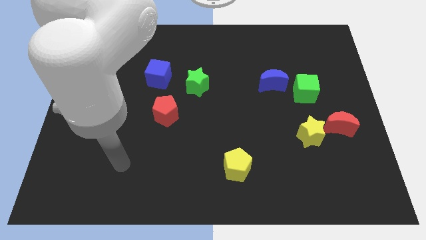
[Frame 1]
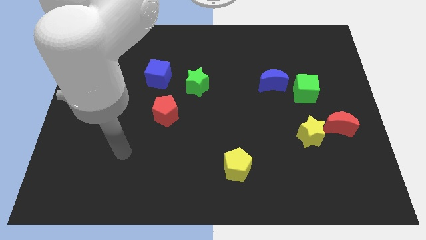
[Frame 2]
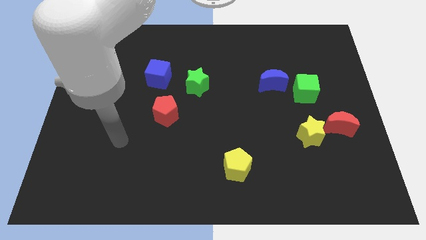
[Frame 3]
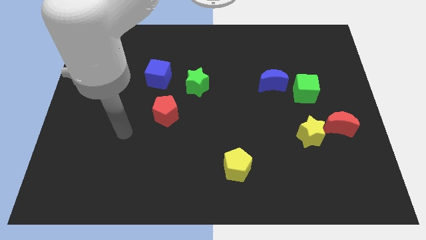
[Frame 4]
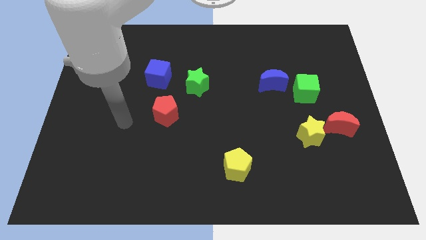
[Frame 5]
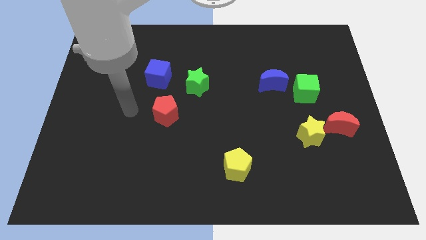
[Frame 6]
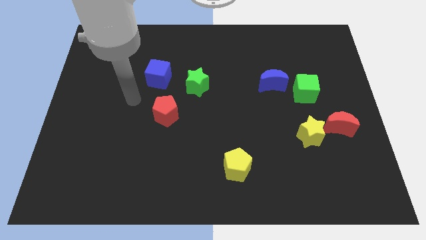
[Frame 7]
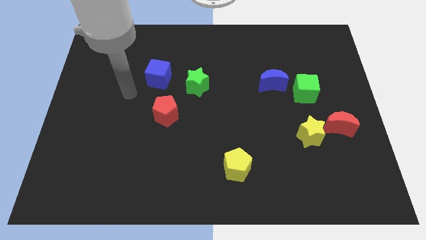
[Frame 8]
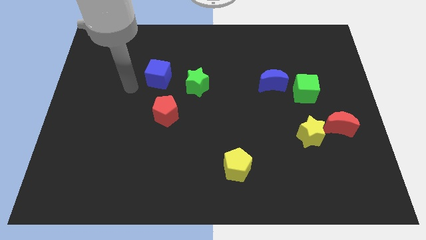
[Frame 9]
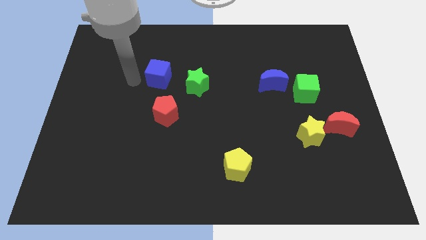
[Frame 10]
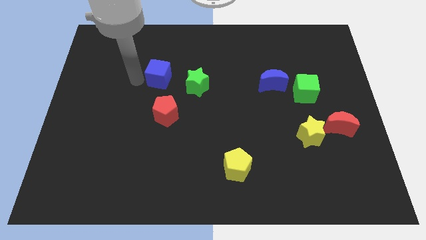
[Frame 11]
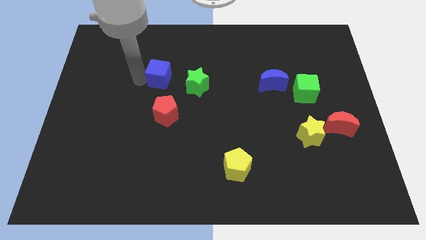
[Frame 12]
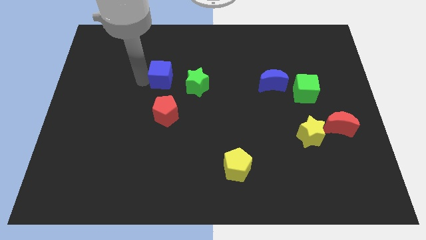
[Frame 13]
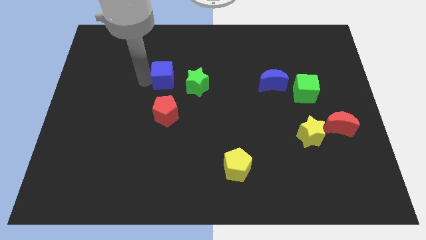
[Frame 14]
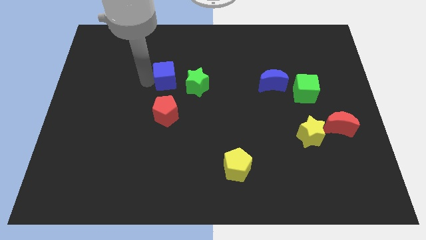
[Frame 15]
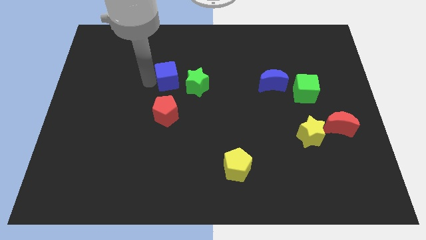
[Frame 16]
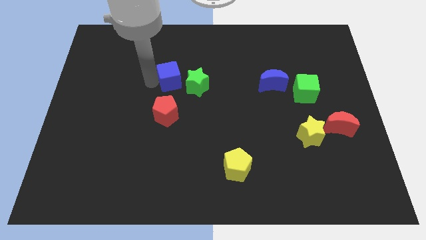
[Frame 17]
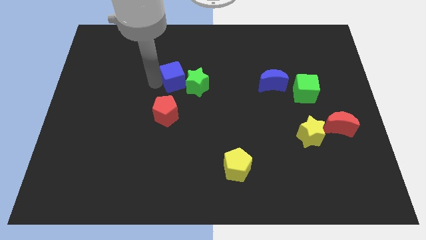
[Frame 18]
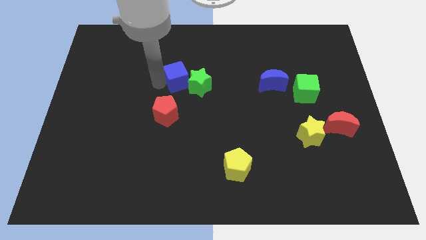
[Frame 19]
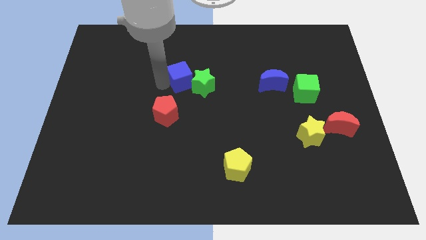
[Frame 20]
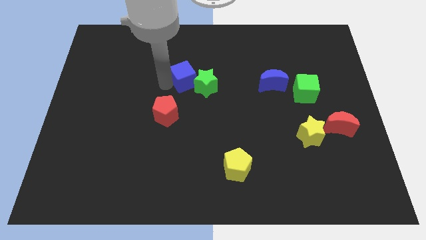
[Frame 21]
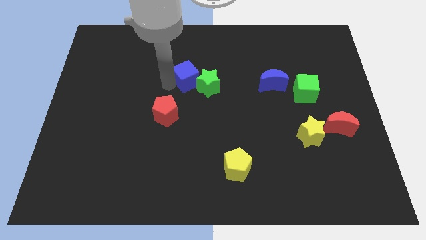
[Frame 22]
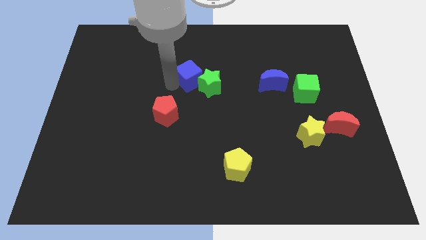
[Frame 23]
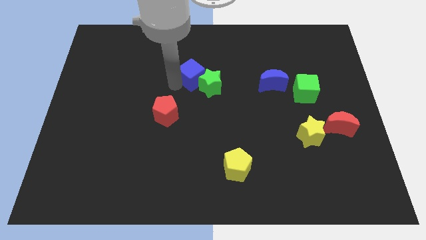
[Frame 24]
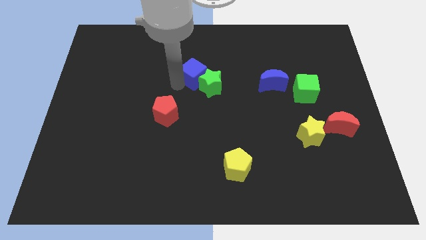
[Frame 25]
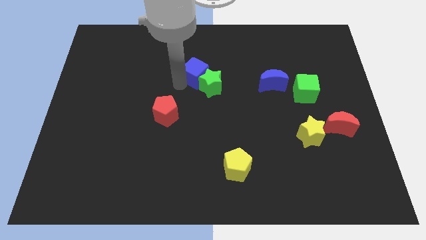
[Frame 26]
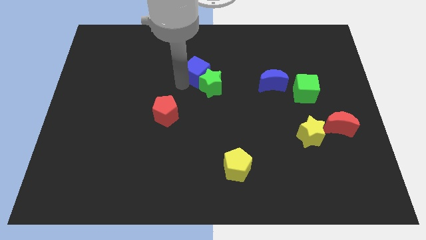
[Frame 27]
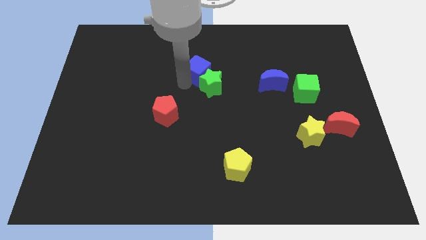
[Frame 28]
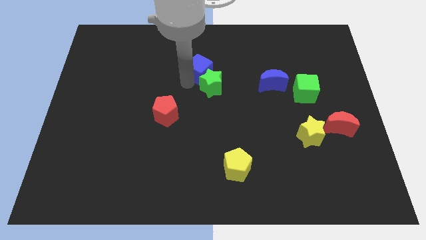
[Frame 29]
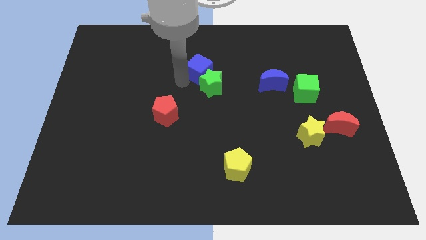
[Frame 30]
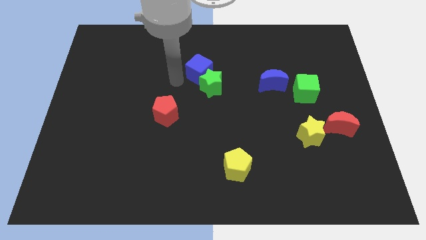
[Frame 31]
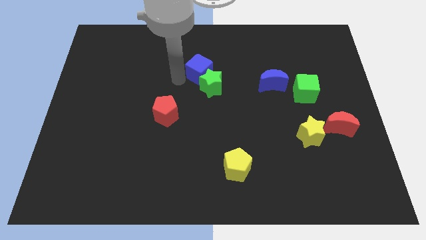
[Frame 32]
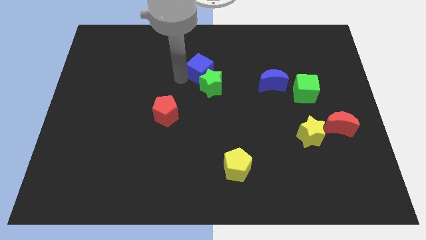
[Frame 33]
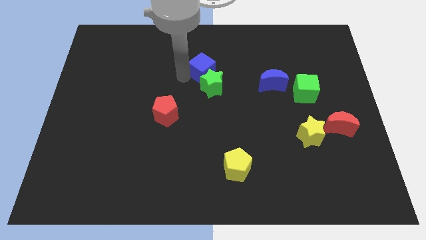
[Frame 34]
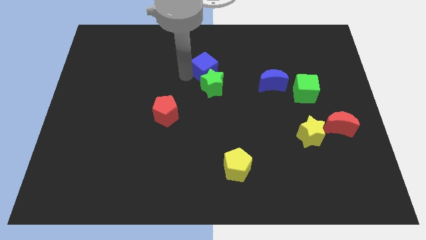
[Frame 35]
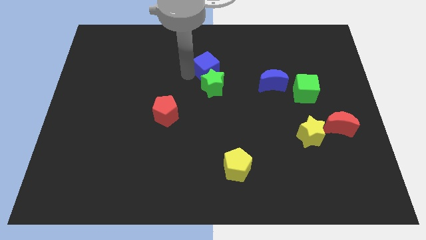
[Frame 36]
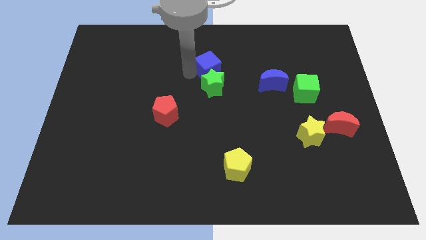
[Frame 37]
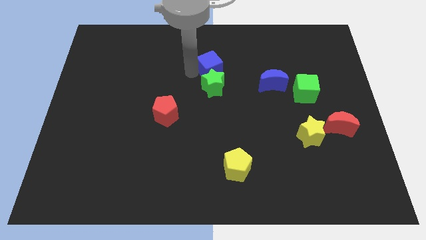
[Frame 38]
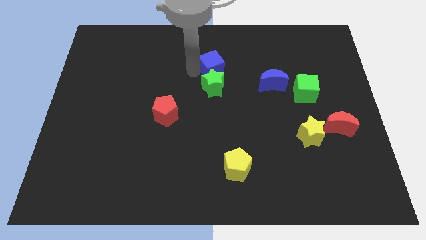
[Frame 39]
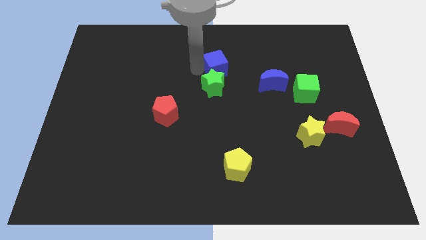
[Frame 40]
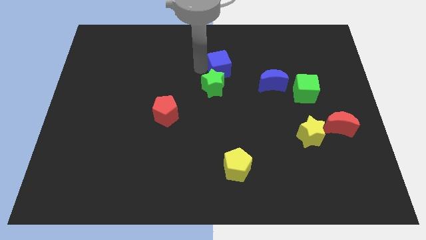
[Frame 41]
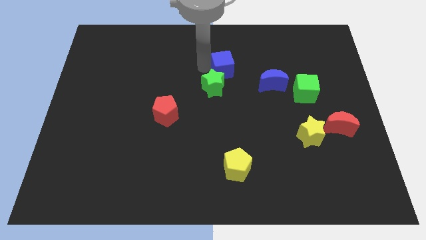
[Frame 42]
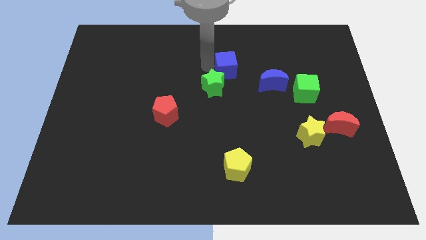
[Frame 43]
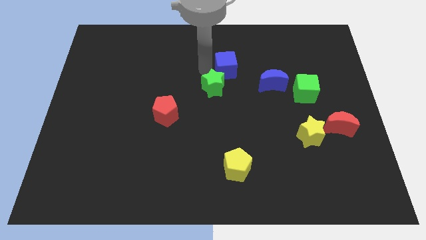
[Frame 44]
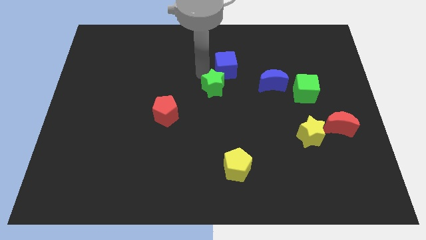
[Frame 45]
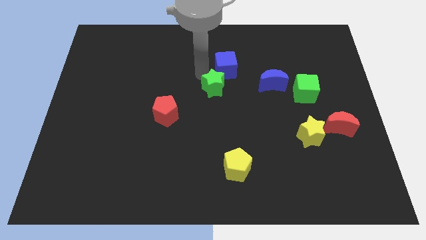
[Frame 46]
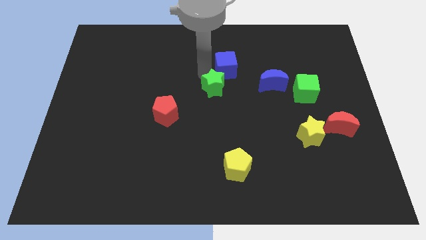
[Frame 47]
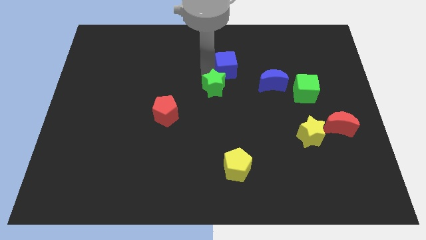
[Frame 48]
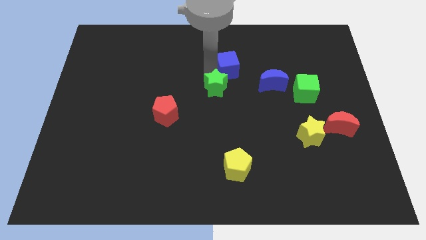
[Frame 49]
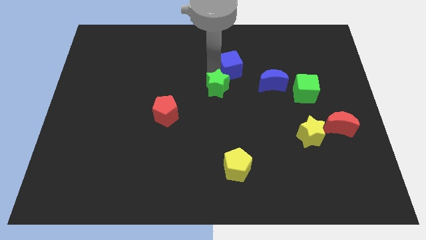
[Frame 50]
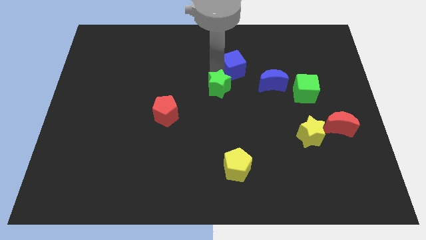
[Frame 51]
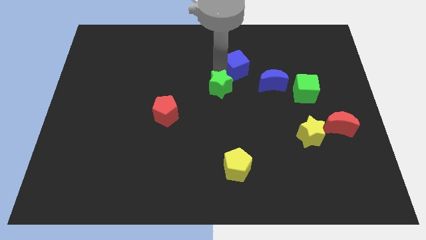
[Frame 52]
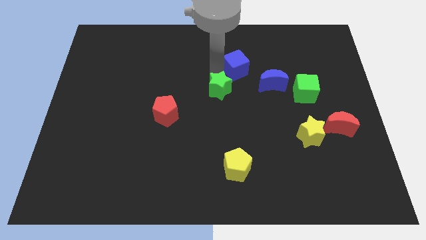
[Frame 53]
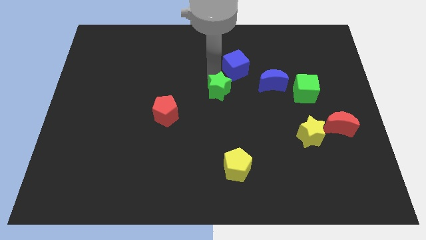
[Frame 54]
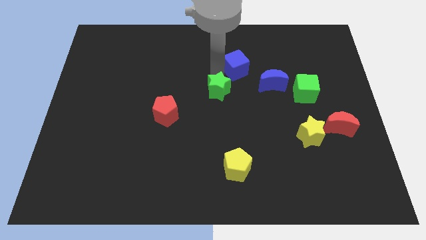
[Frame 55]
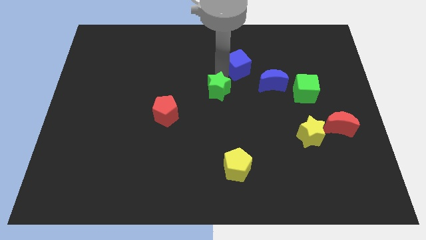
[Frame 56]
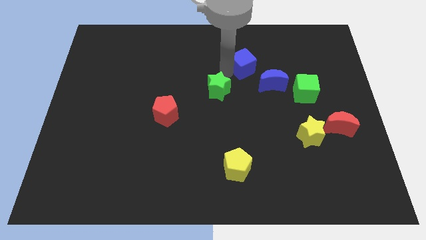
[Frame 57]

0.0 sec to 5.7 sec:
move the blue cube right

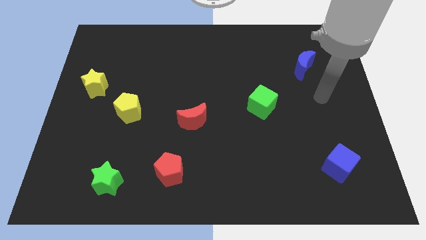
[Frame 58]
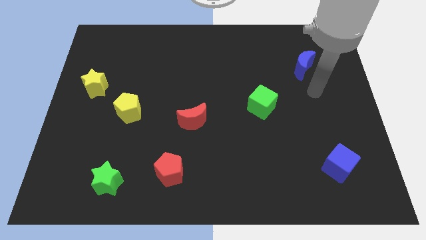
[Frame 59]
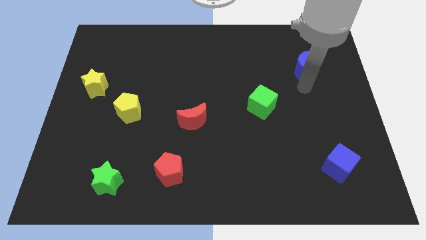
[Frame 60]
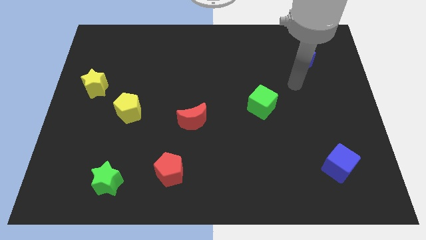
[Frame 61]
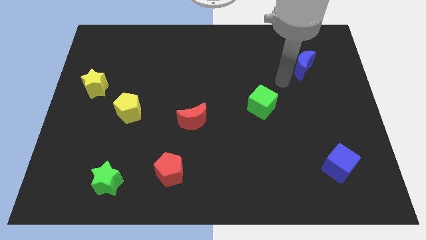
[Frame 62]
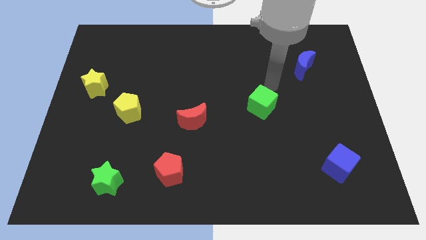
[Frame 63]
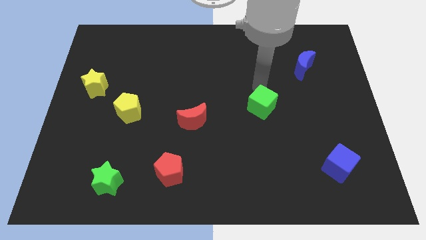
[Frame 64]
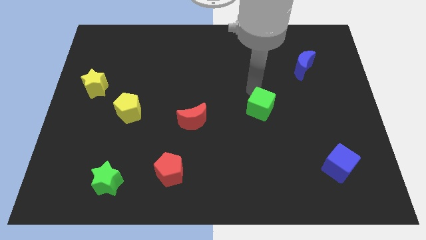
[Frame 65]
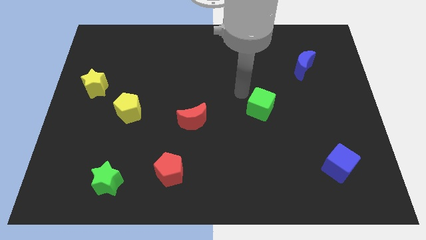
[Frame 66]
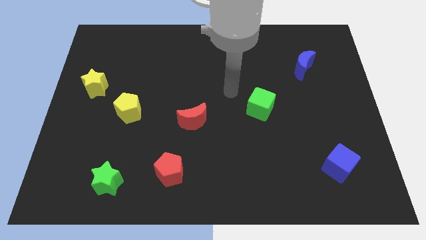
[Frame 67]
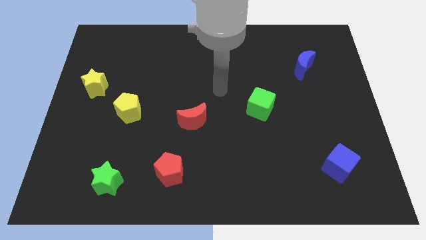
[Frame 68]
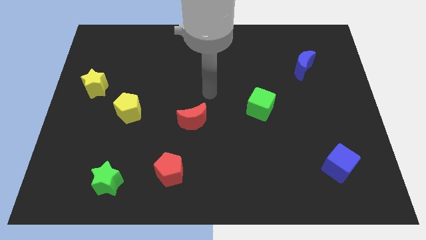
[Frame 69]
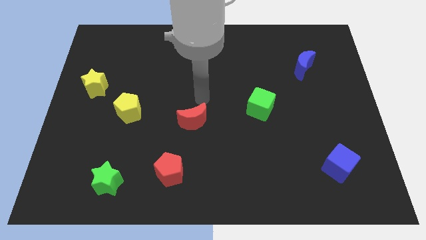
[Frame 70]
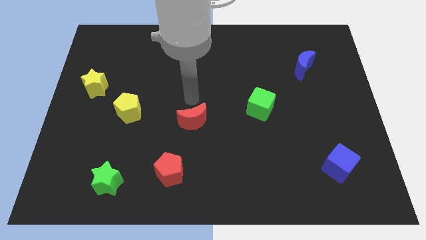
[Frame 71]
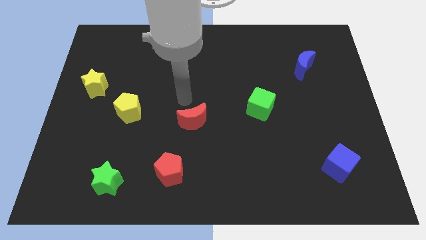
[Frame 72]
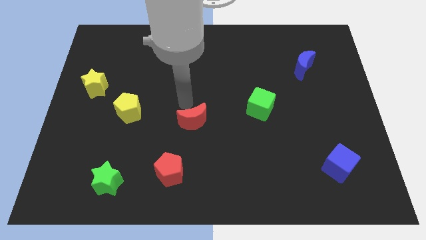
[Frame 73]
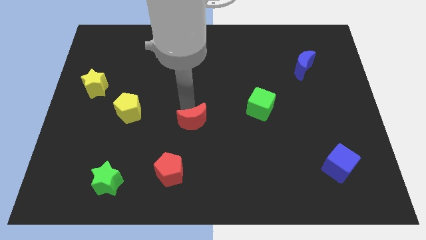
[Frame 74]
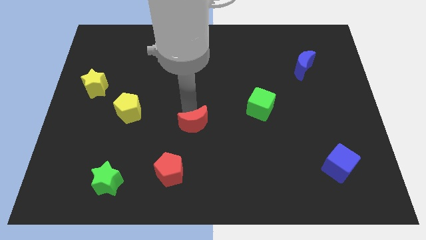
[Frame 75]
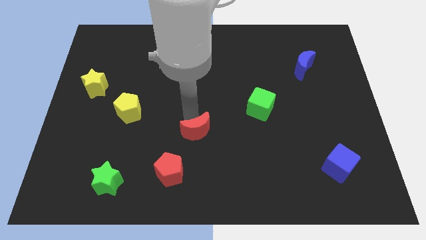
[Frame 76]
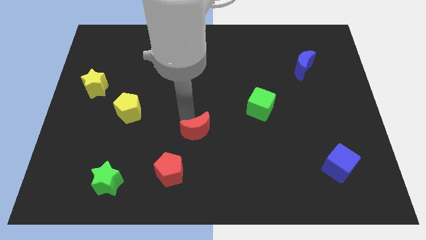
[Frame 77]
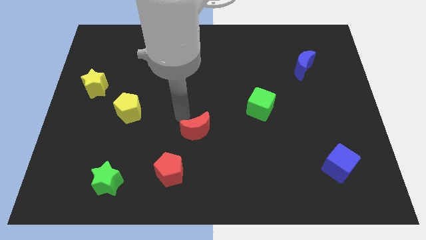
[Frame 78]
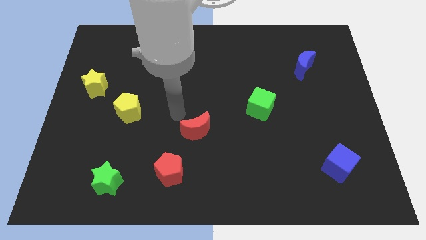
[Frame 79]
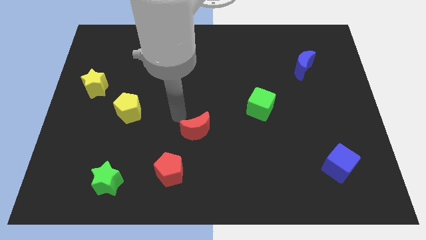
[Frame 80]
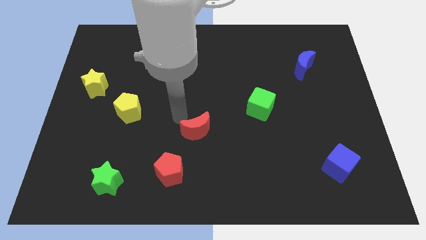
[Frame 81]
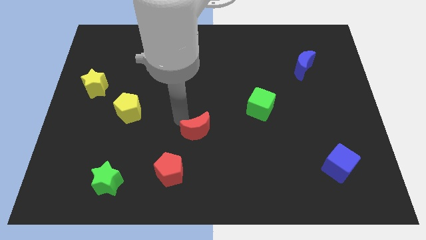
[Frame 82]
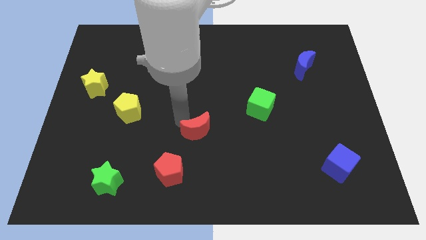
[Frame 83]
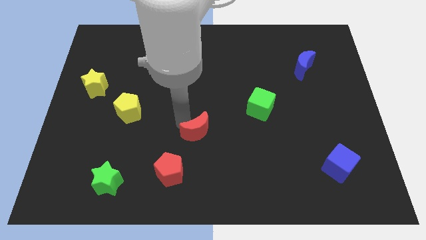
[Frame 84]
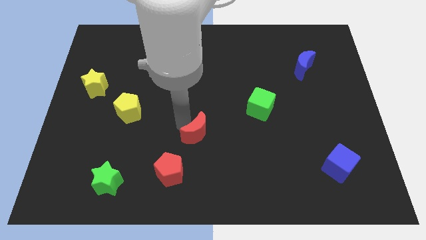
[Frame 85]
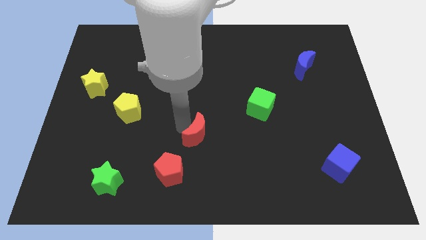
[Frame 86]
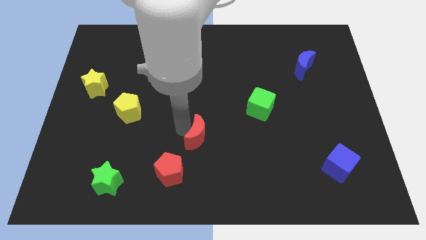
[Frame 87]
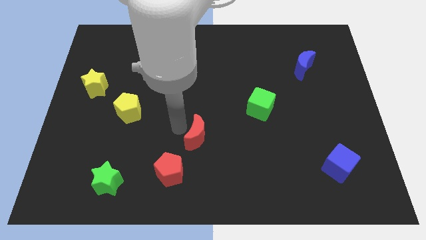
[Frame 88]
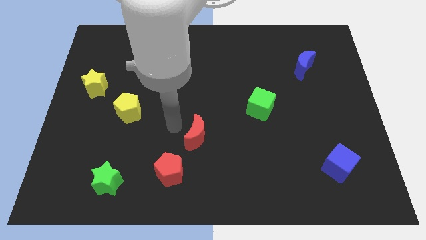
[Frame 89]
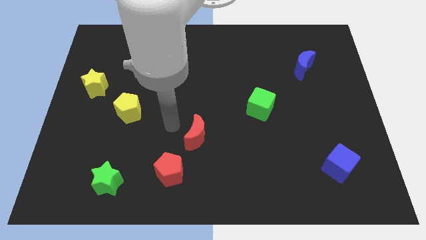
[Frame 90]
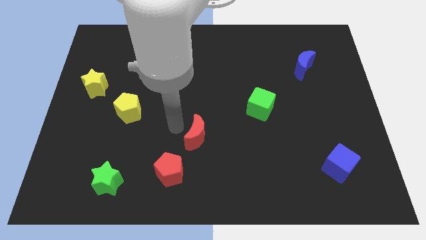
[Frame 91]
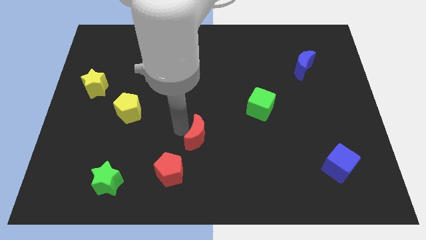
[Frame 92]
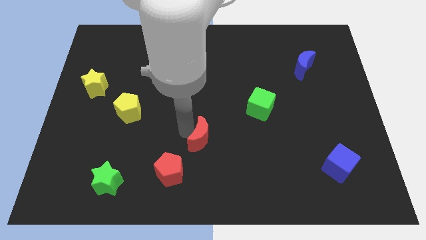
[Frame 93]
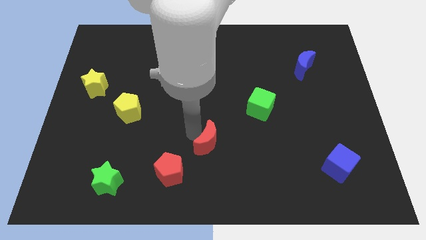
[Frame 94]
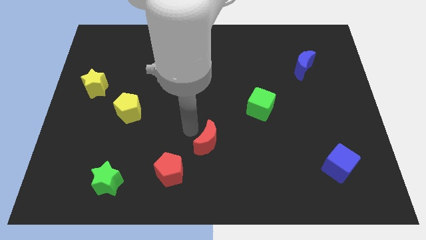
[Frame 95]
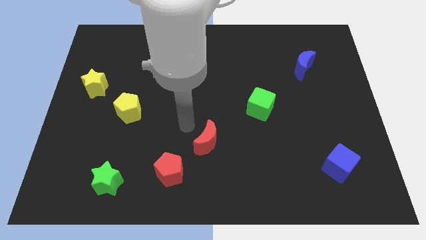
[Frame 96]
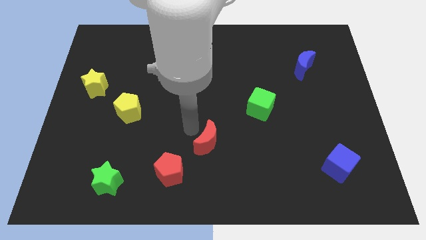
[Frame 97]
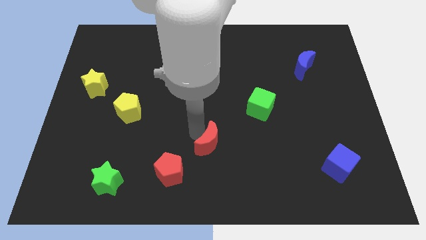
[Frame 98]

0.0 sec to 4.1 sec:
push the red moon somewhat downwards and to the right diagonally
